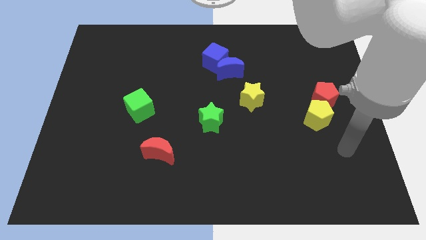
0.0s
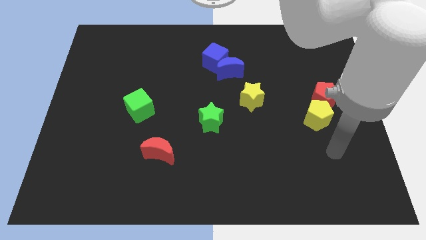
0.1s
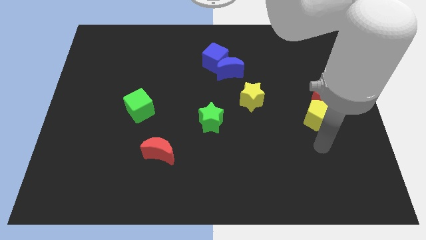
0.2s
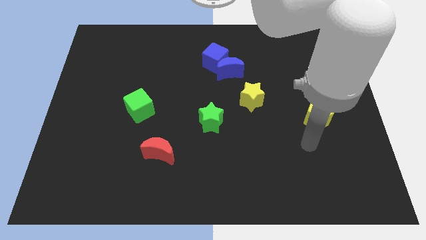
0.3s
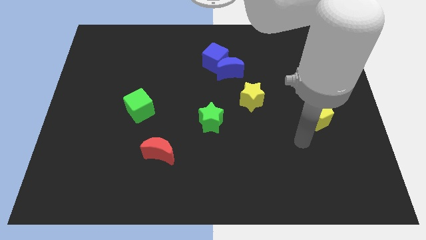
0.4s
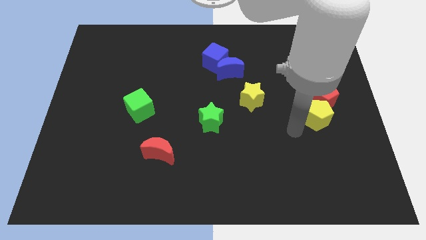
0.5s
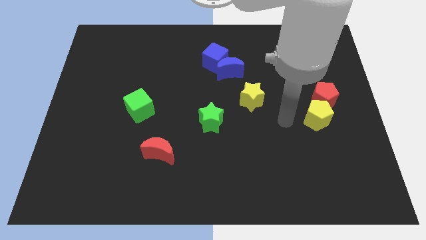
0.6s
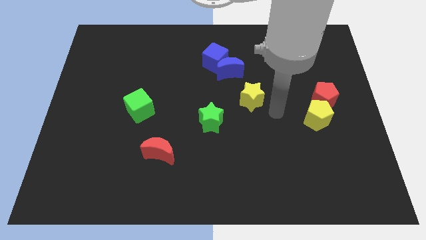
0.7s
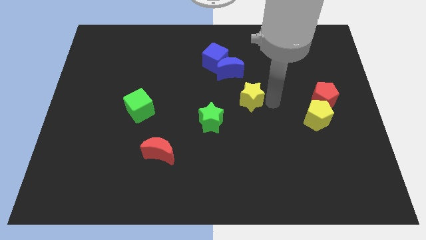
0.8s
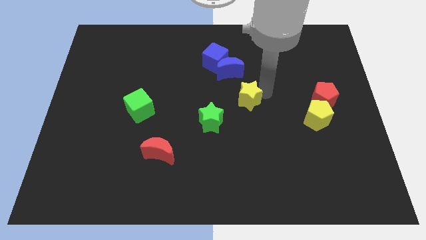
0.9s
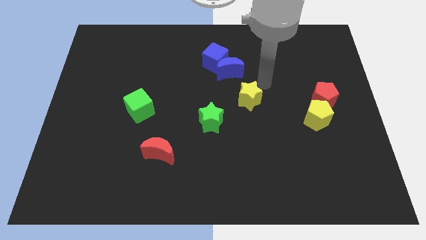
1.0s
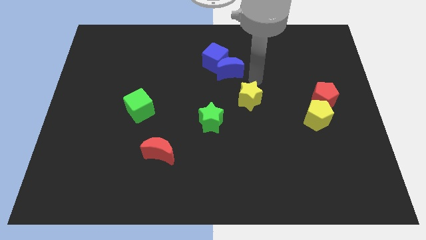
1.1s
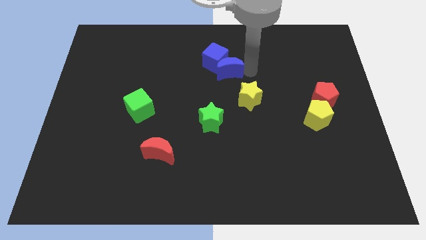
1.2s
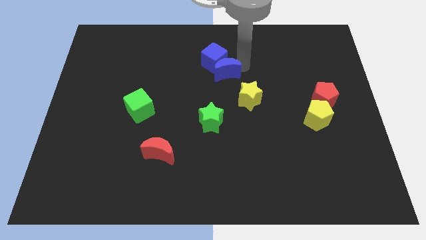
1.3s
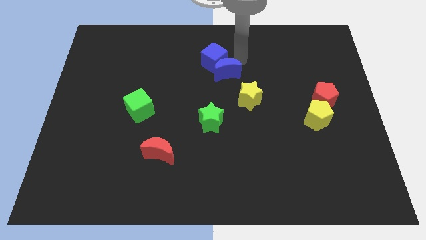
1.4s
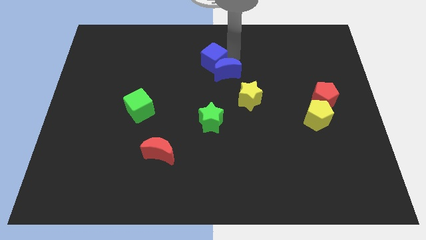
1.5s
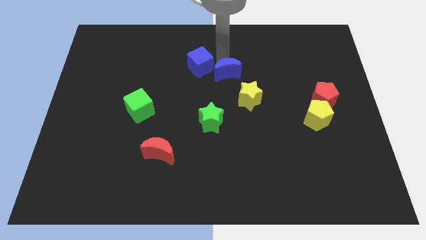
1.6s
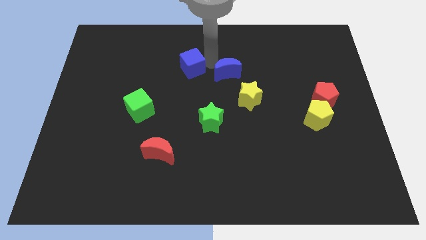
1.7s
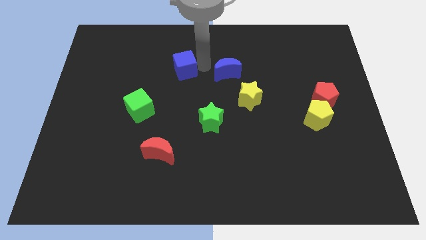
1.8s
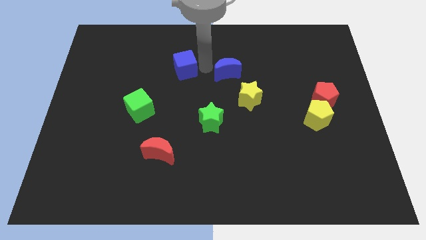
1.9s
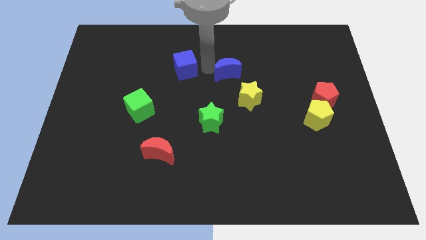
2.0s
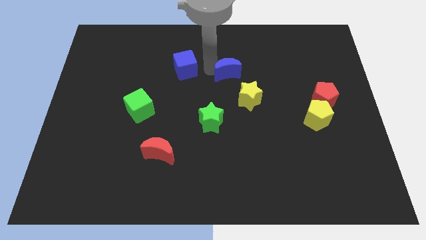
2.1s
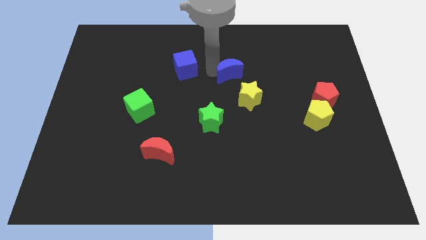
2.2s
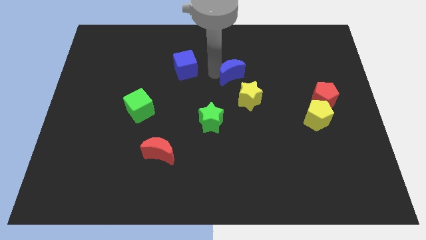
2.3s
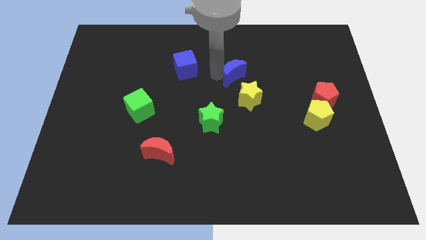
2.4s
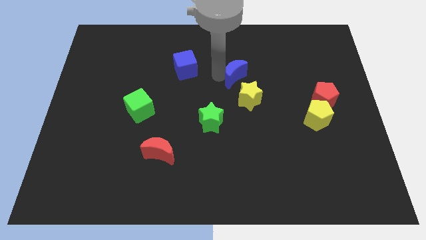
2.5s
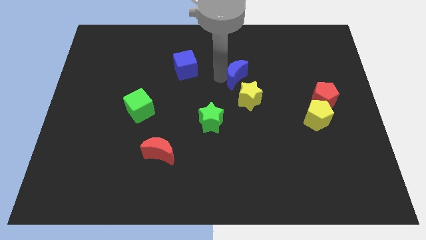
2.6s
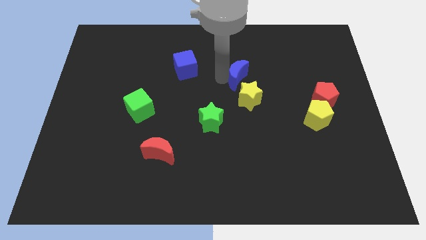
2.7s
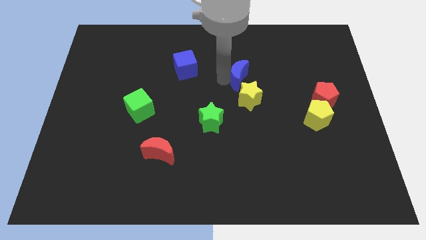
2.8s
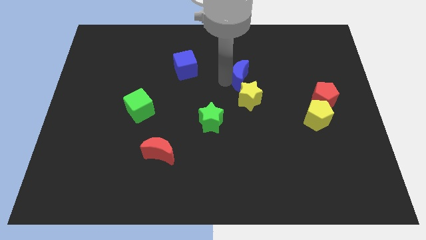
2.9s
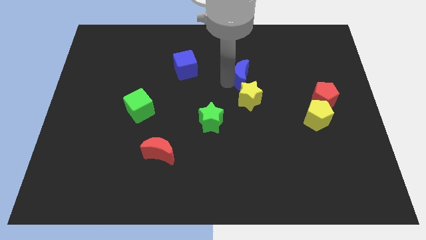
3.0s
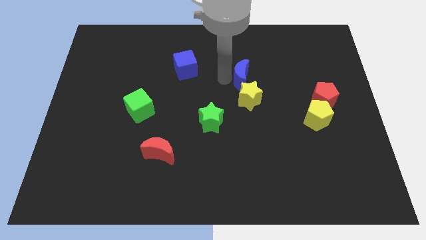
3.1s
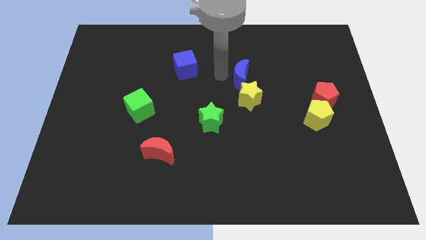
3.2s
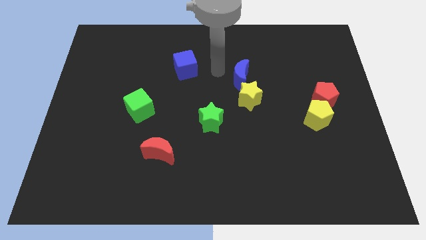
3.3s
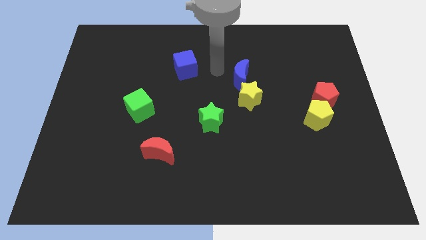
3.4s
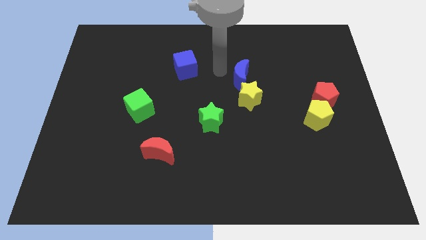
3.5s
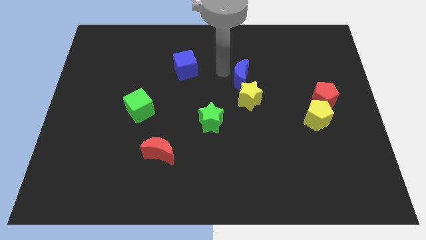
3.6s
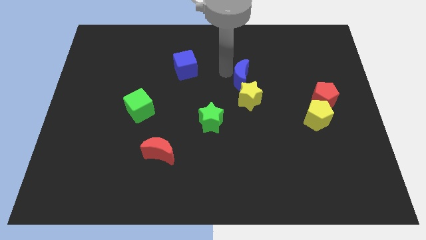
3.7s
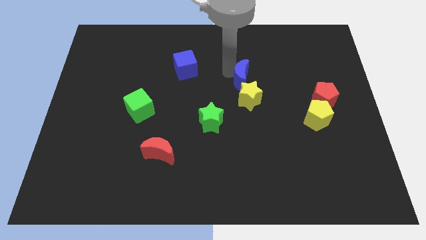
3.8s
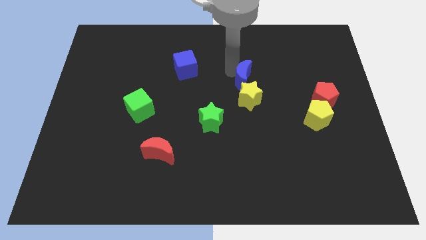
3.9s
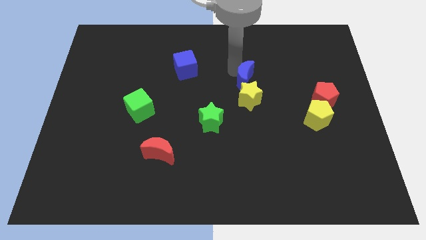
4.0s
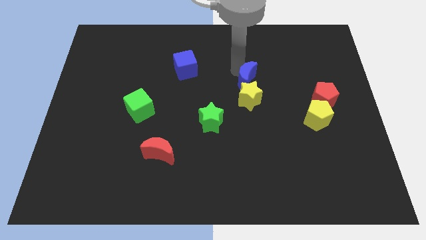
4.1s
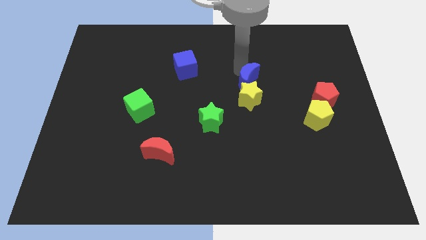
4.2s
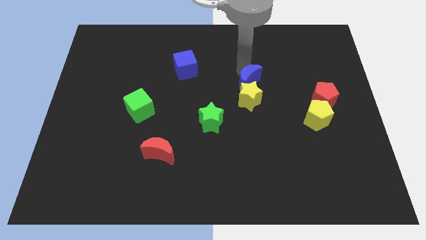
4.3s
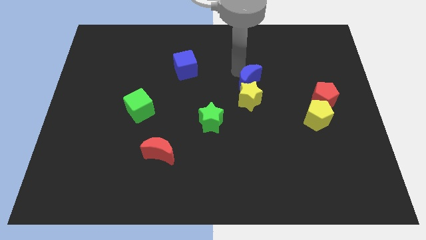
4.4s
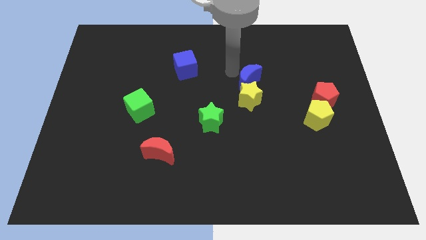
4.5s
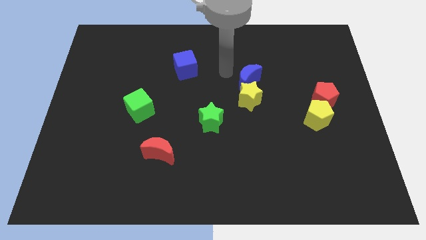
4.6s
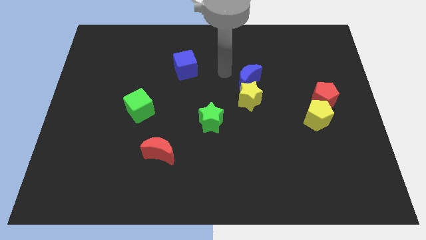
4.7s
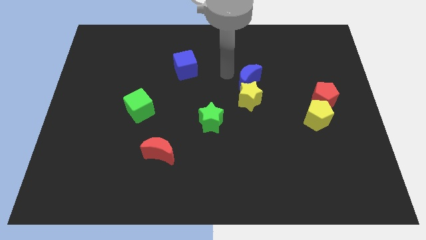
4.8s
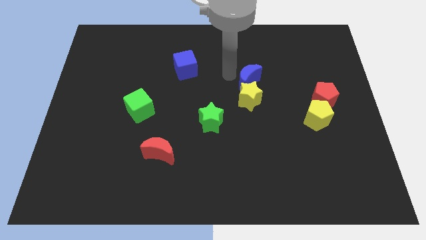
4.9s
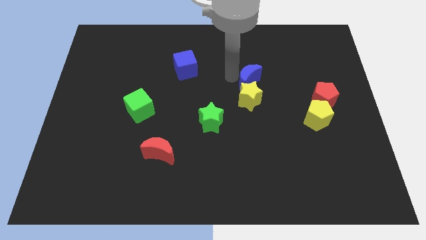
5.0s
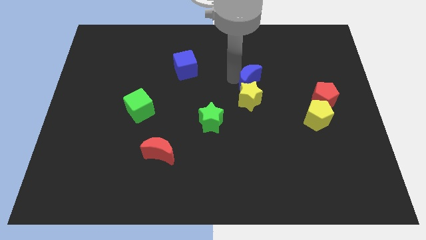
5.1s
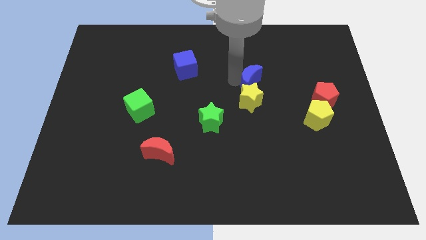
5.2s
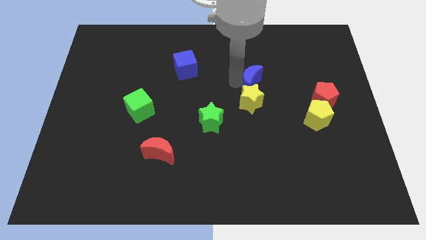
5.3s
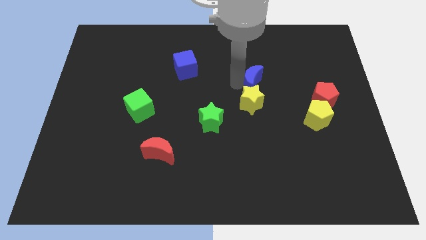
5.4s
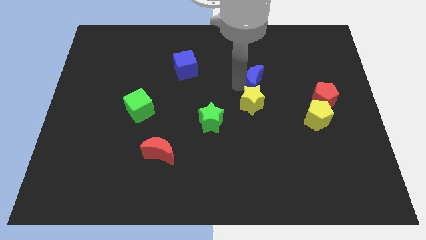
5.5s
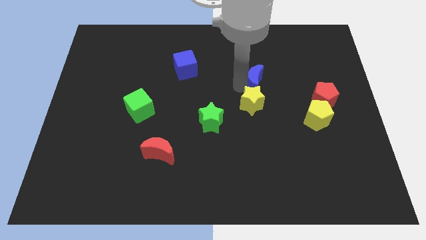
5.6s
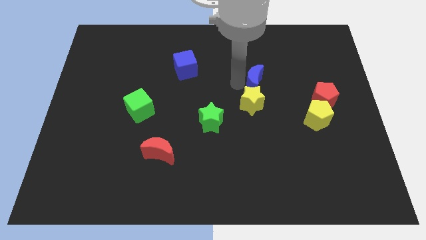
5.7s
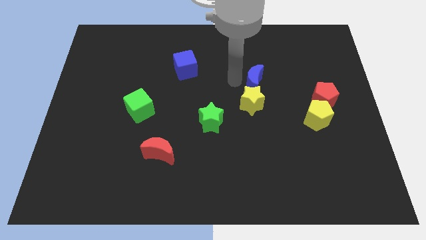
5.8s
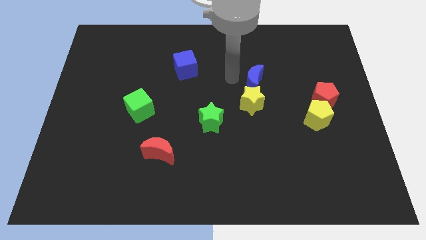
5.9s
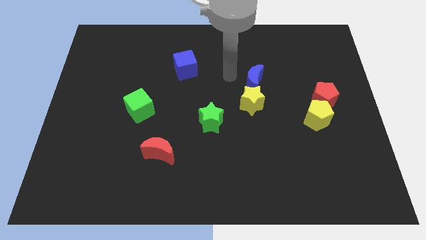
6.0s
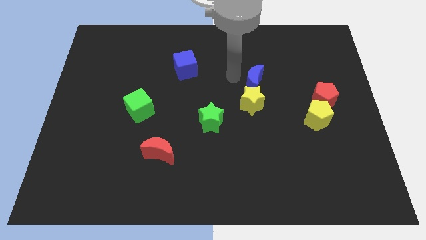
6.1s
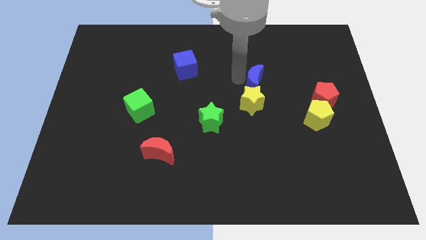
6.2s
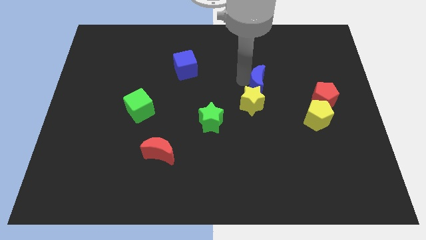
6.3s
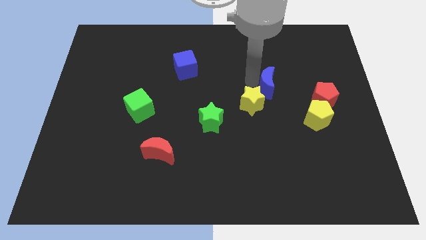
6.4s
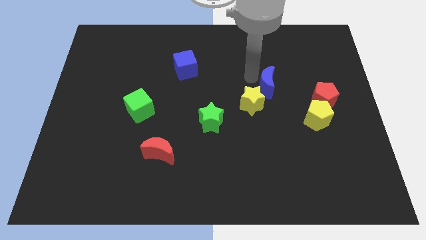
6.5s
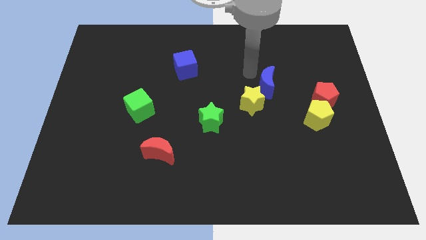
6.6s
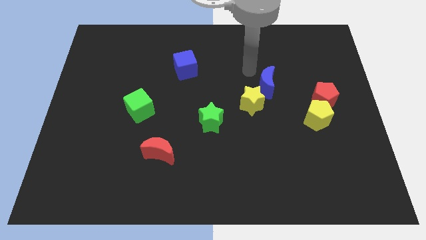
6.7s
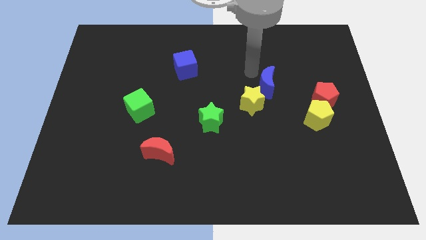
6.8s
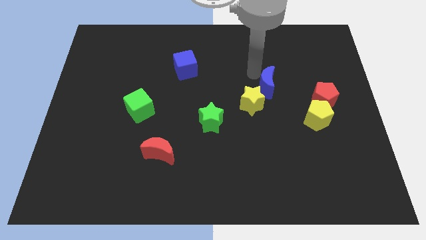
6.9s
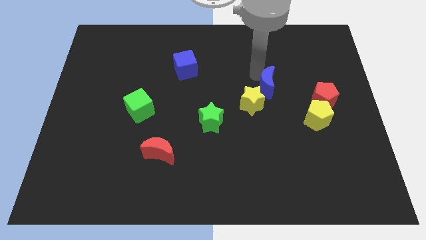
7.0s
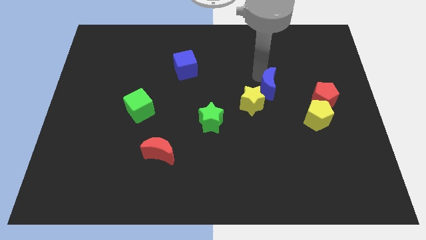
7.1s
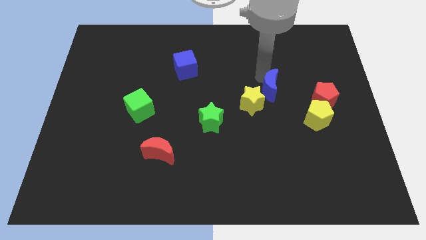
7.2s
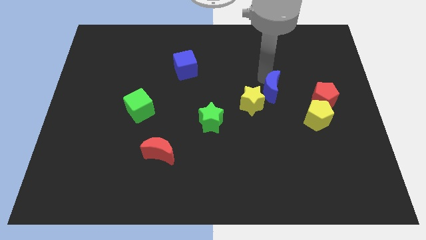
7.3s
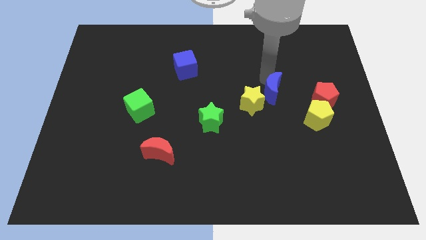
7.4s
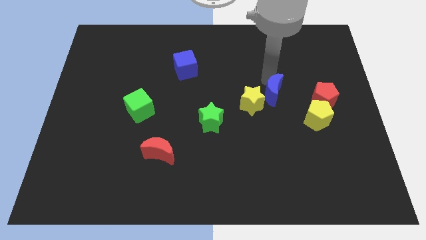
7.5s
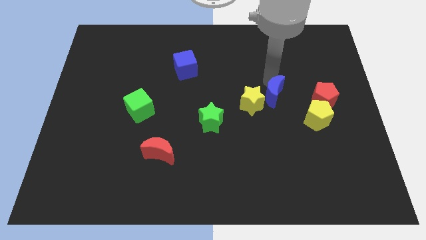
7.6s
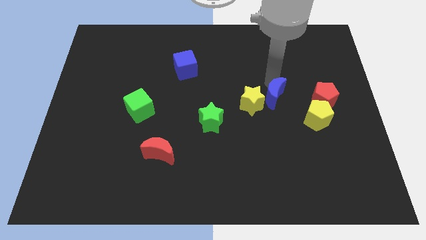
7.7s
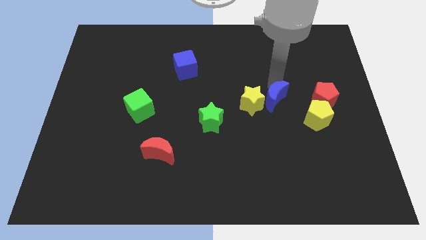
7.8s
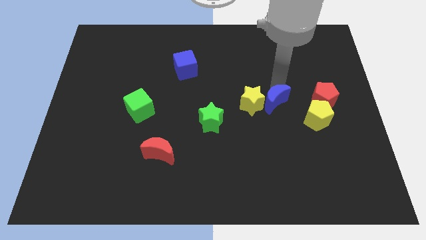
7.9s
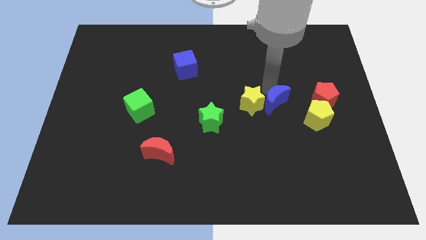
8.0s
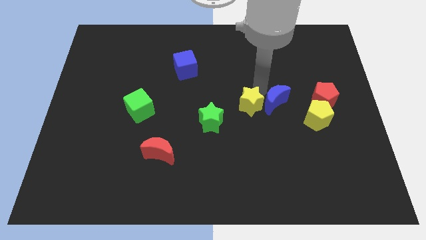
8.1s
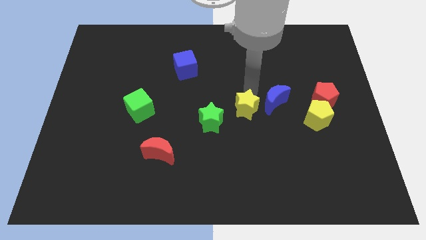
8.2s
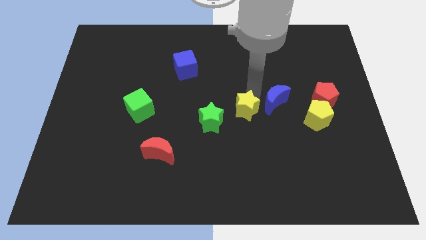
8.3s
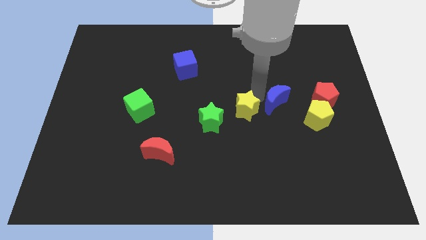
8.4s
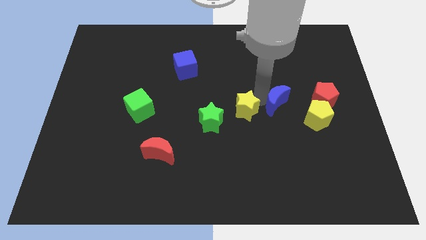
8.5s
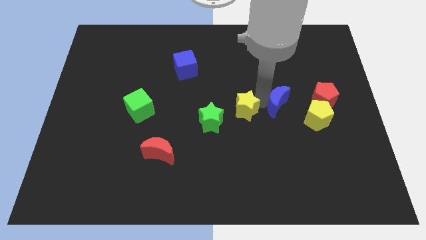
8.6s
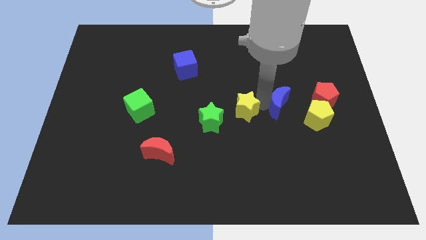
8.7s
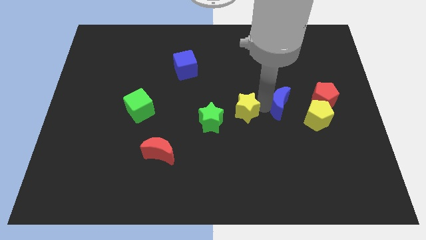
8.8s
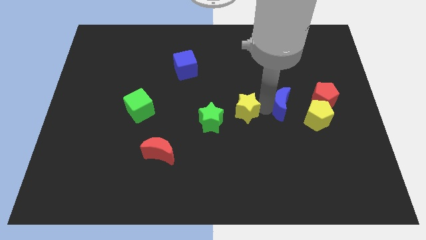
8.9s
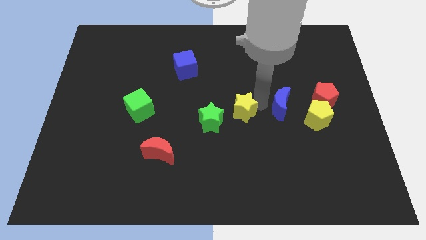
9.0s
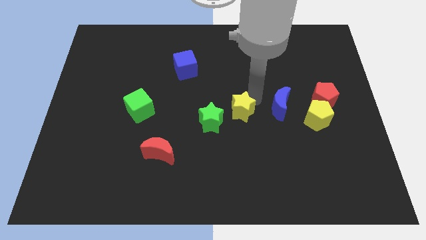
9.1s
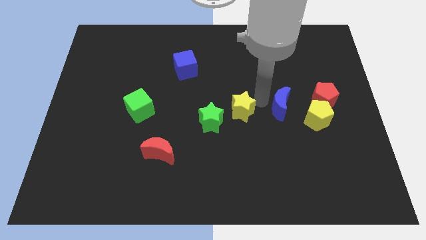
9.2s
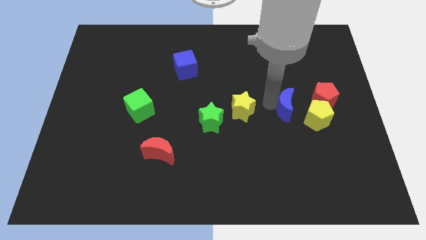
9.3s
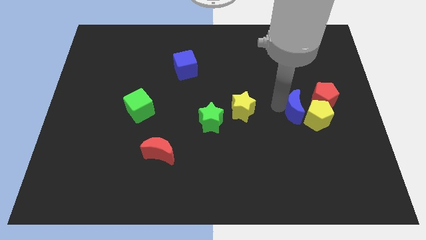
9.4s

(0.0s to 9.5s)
put the blue moon close to the yellow pentagon
